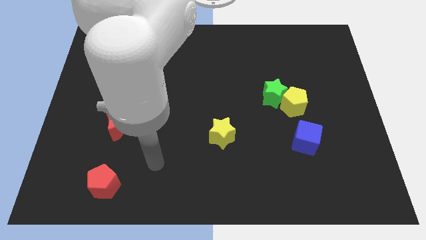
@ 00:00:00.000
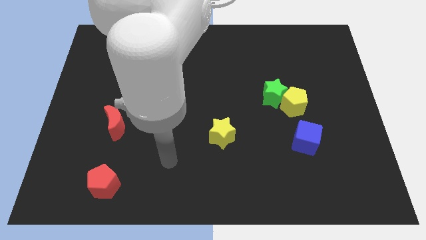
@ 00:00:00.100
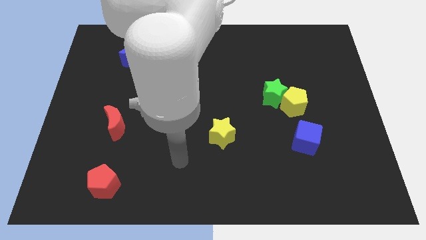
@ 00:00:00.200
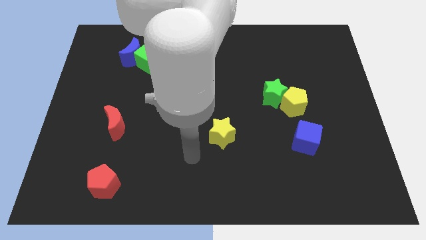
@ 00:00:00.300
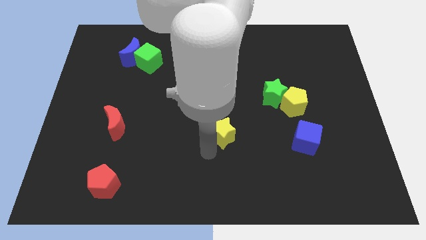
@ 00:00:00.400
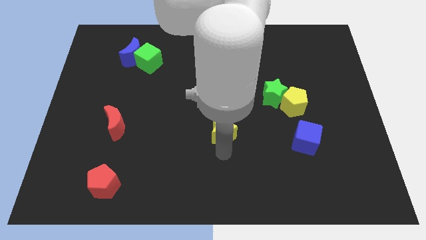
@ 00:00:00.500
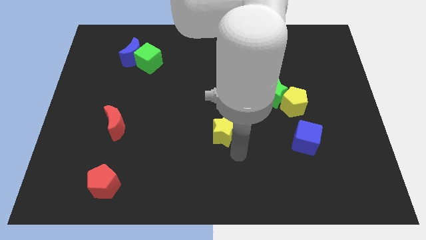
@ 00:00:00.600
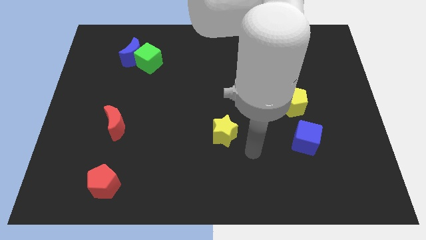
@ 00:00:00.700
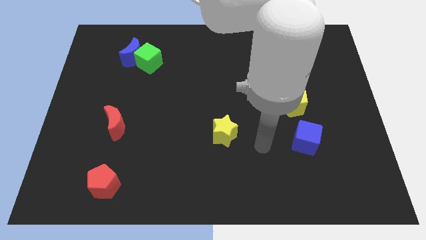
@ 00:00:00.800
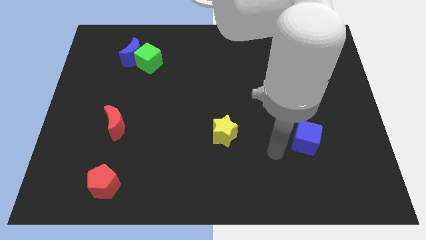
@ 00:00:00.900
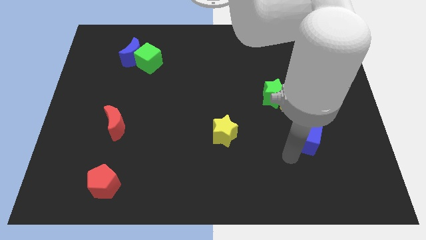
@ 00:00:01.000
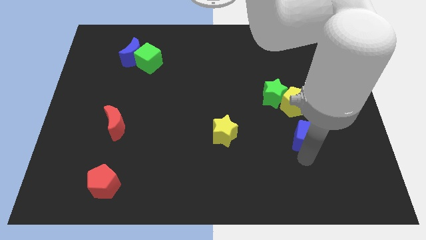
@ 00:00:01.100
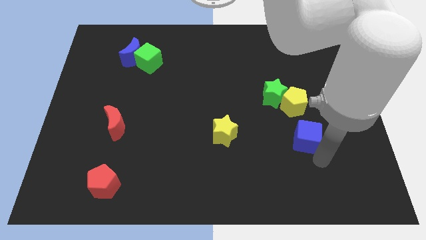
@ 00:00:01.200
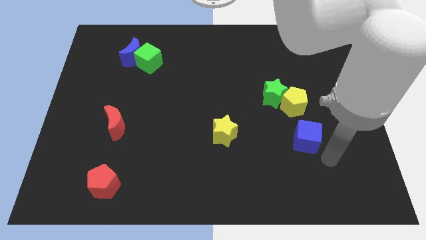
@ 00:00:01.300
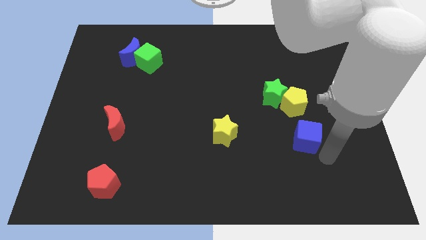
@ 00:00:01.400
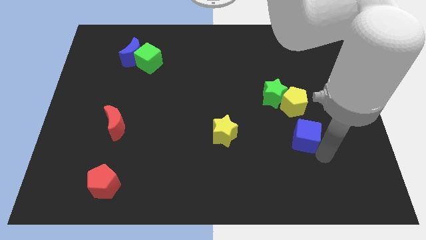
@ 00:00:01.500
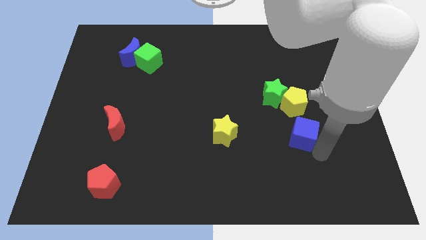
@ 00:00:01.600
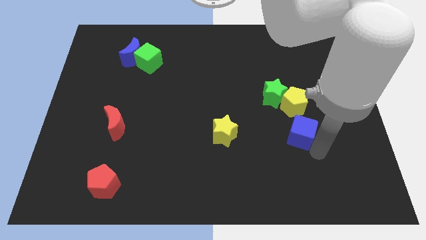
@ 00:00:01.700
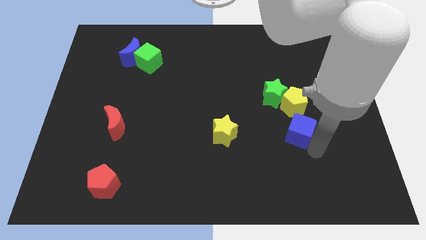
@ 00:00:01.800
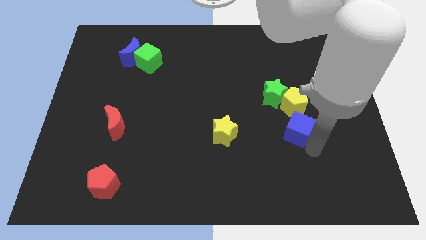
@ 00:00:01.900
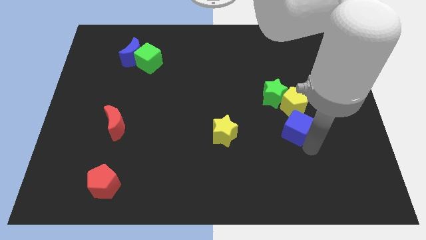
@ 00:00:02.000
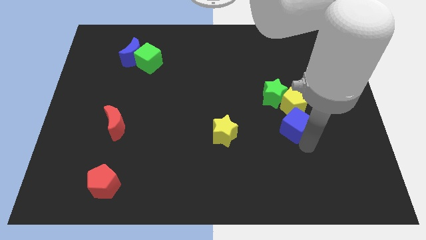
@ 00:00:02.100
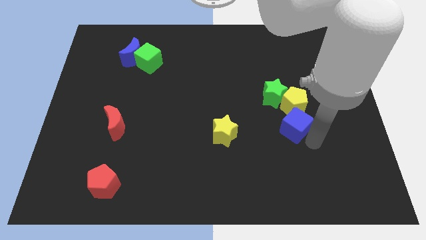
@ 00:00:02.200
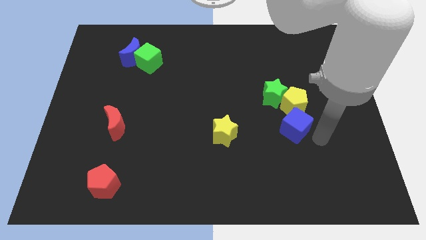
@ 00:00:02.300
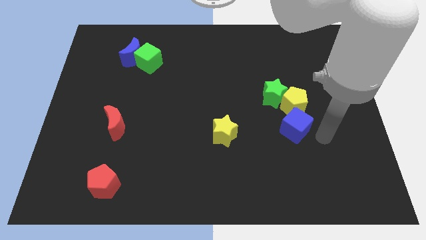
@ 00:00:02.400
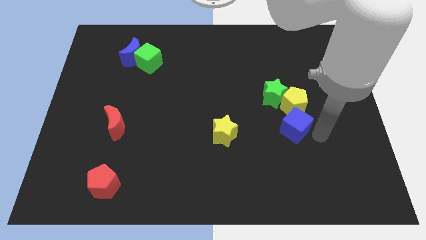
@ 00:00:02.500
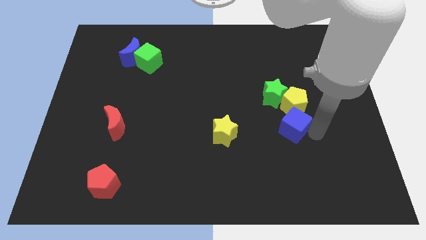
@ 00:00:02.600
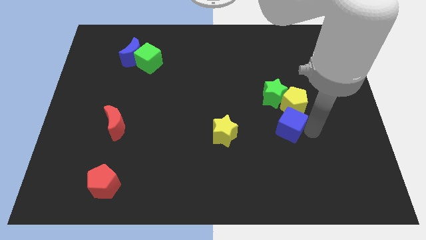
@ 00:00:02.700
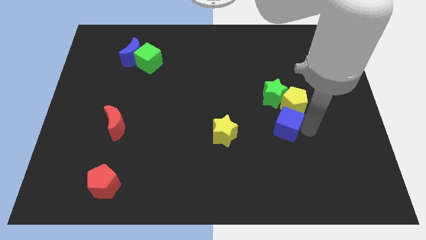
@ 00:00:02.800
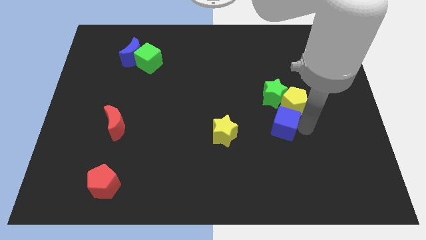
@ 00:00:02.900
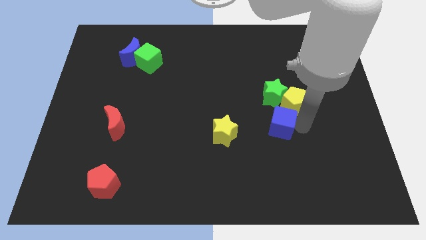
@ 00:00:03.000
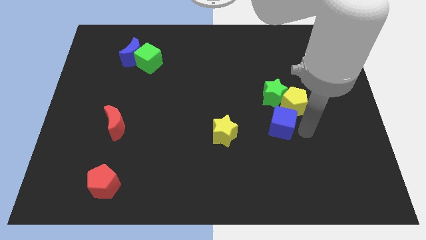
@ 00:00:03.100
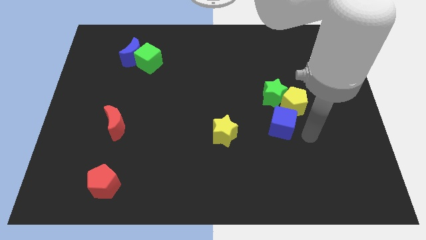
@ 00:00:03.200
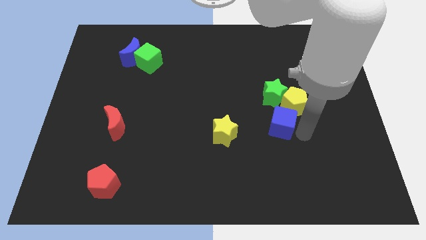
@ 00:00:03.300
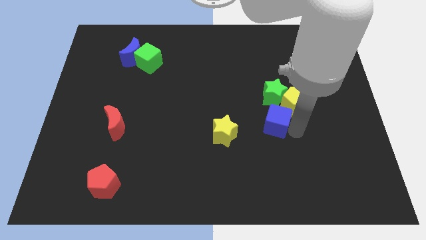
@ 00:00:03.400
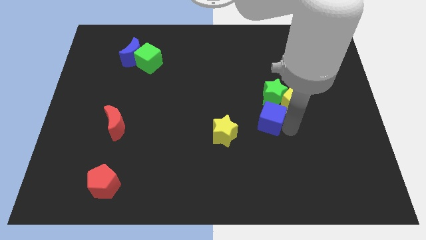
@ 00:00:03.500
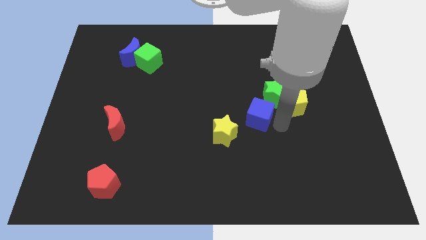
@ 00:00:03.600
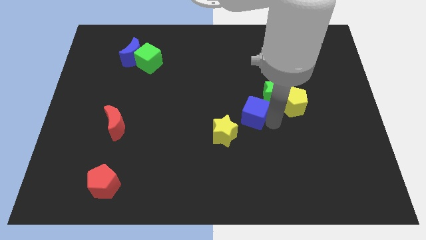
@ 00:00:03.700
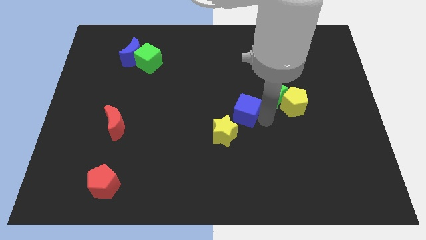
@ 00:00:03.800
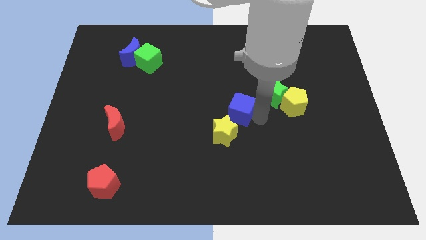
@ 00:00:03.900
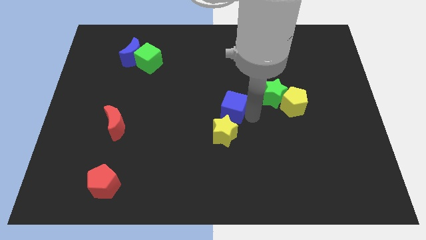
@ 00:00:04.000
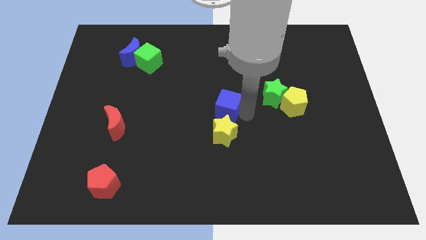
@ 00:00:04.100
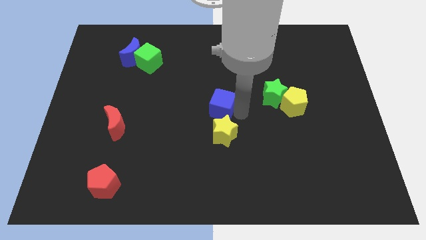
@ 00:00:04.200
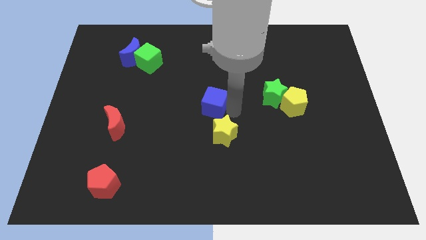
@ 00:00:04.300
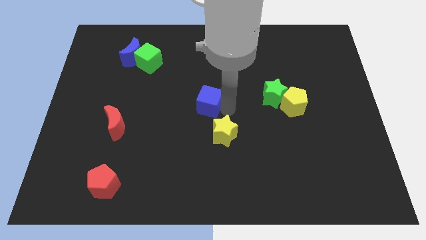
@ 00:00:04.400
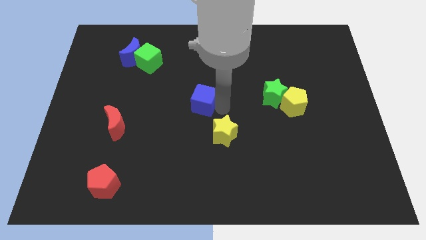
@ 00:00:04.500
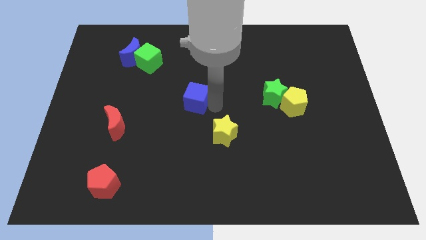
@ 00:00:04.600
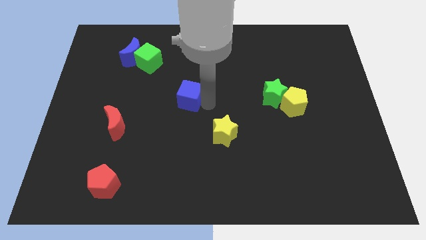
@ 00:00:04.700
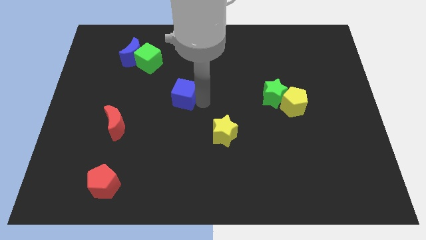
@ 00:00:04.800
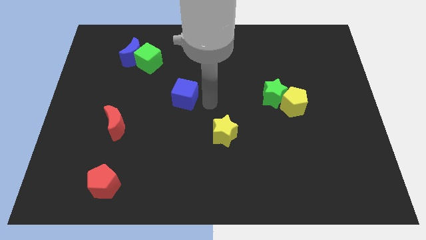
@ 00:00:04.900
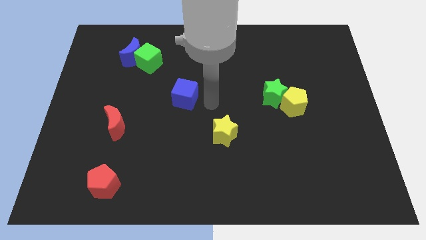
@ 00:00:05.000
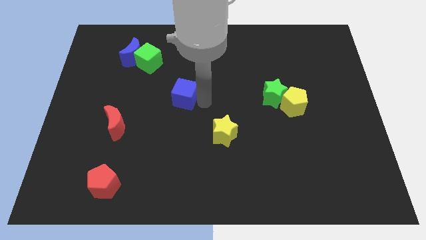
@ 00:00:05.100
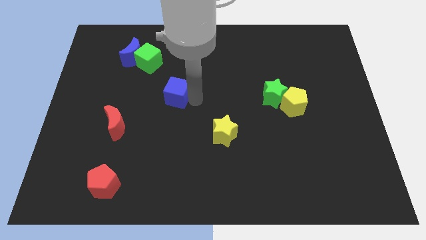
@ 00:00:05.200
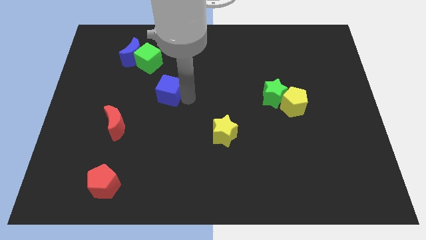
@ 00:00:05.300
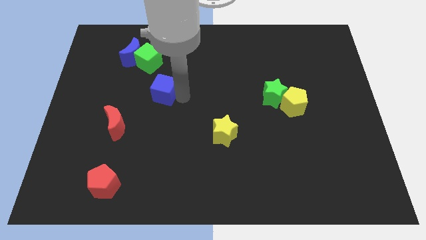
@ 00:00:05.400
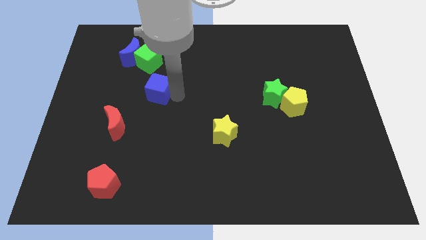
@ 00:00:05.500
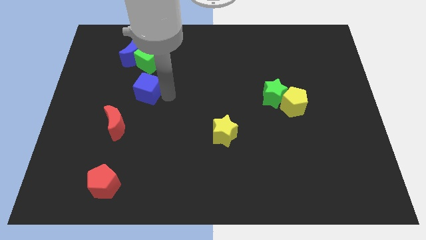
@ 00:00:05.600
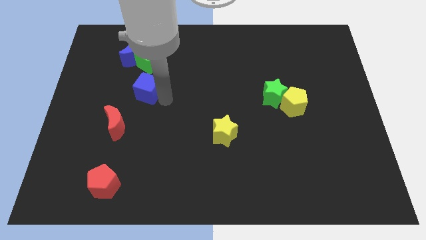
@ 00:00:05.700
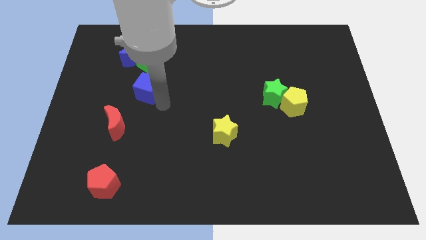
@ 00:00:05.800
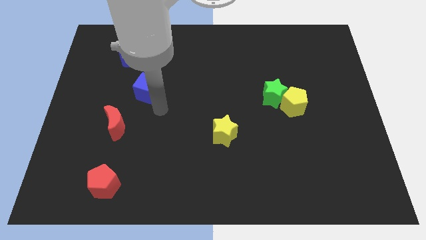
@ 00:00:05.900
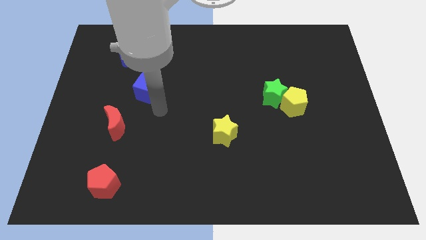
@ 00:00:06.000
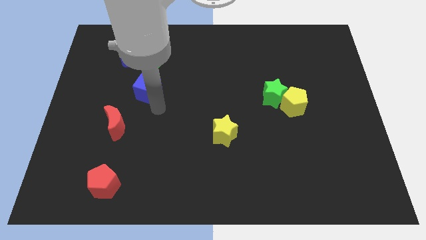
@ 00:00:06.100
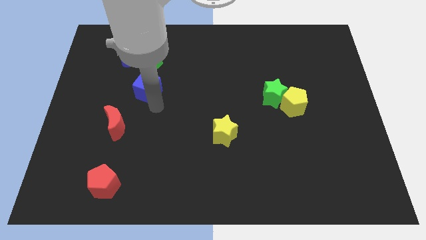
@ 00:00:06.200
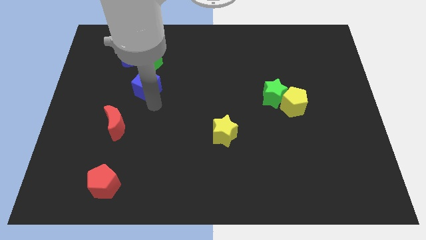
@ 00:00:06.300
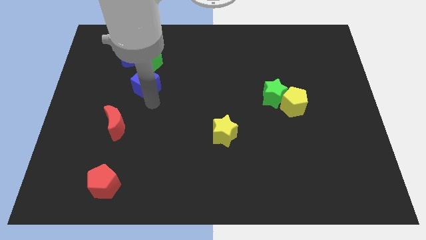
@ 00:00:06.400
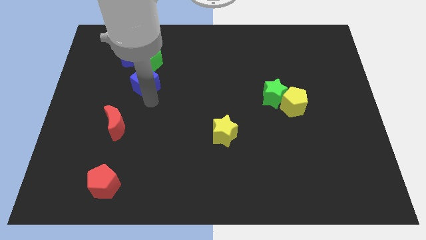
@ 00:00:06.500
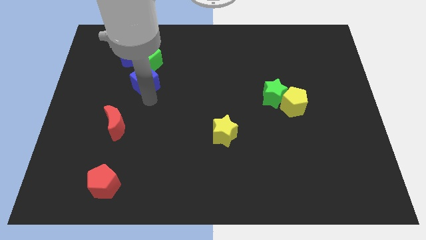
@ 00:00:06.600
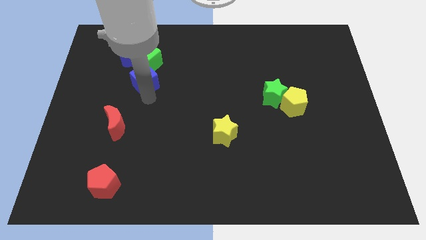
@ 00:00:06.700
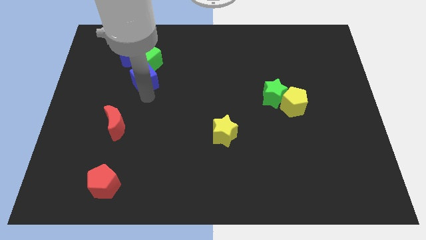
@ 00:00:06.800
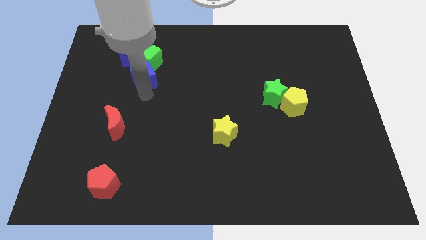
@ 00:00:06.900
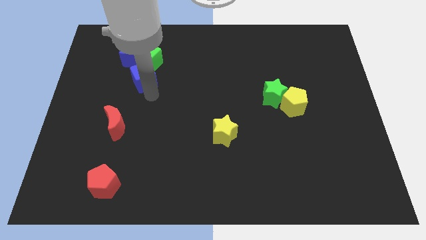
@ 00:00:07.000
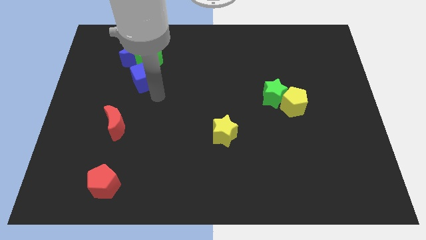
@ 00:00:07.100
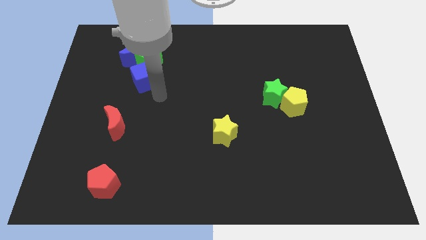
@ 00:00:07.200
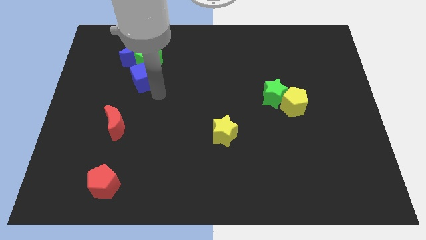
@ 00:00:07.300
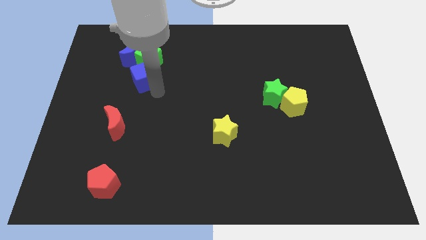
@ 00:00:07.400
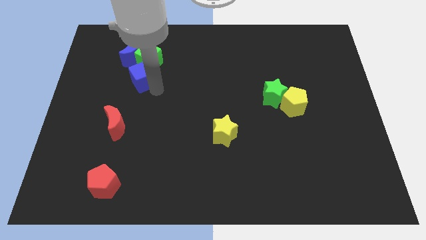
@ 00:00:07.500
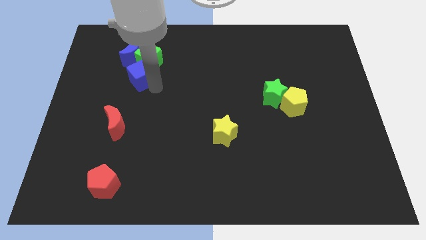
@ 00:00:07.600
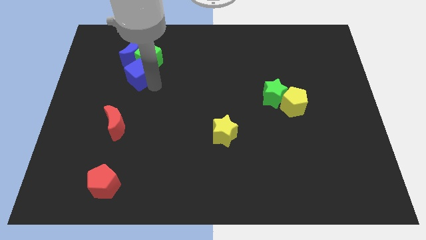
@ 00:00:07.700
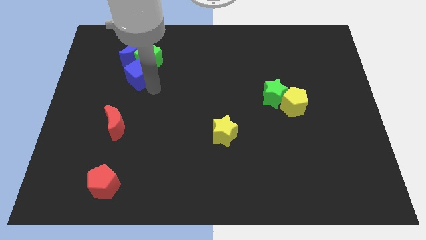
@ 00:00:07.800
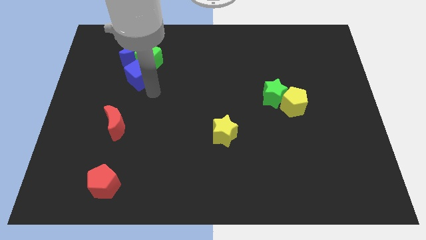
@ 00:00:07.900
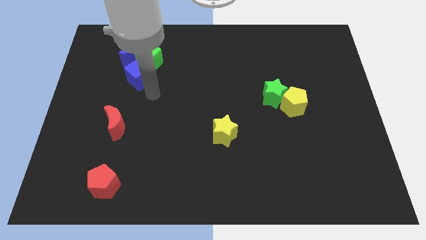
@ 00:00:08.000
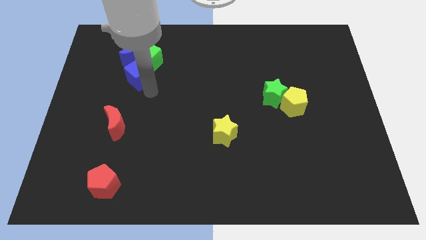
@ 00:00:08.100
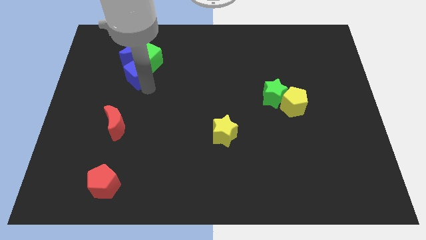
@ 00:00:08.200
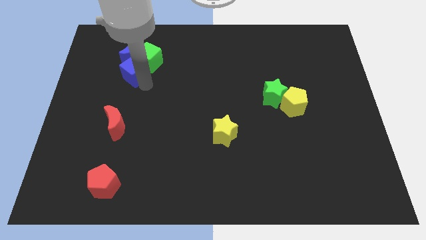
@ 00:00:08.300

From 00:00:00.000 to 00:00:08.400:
slide the blue cube to the blue moon
